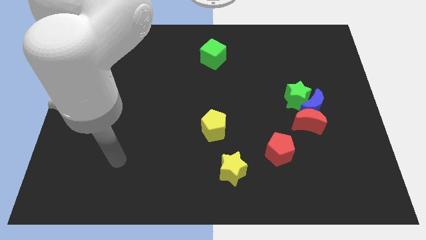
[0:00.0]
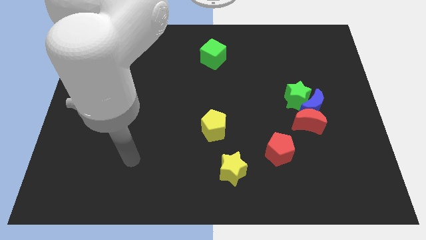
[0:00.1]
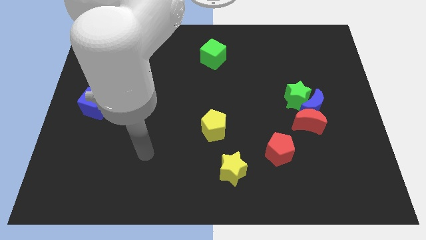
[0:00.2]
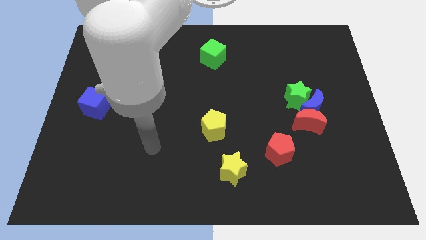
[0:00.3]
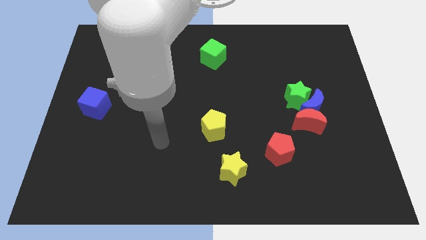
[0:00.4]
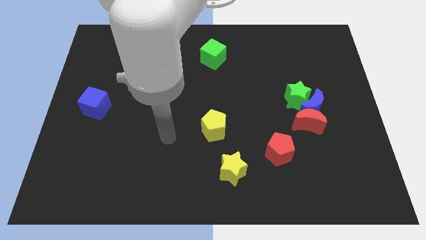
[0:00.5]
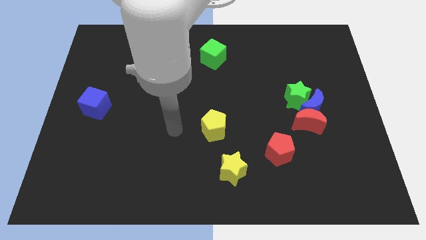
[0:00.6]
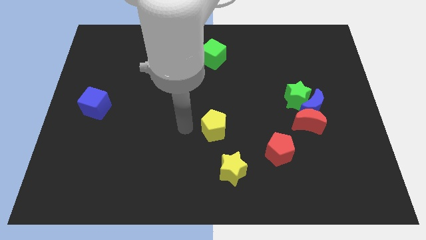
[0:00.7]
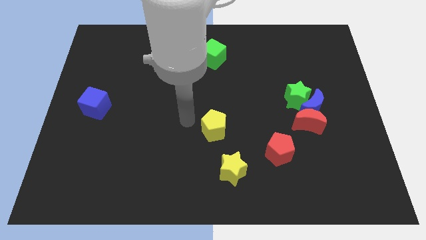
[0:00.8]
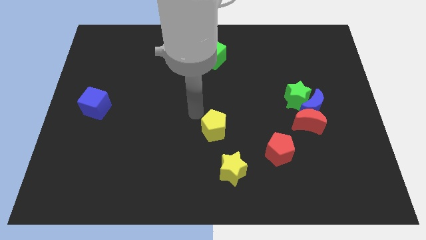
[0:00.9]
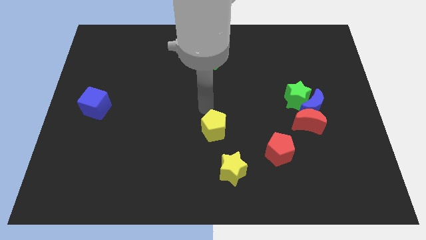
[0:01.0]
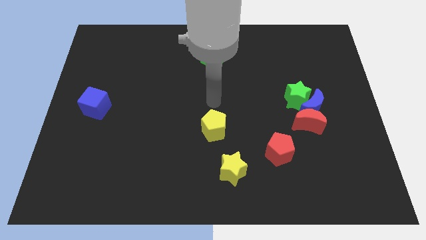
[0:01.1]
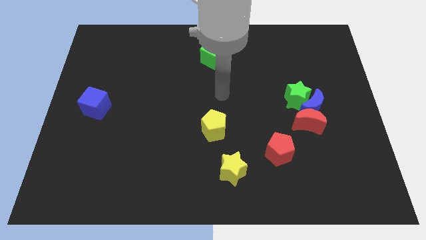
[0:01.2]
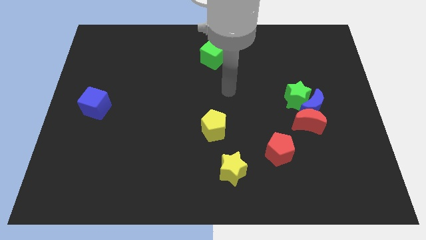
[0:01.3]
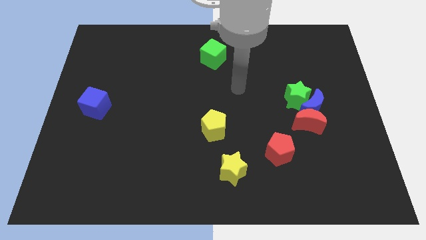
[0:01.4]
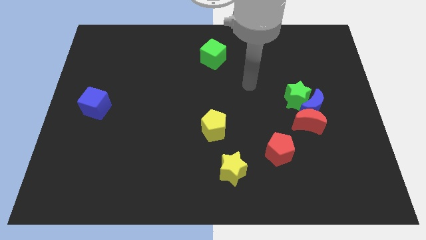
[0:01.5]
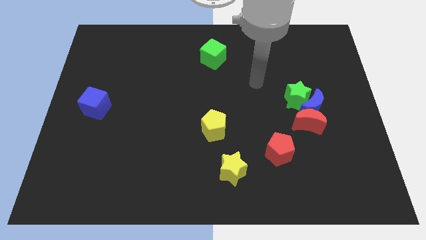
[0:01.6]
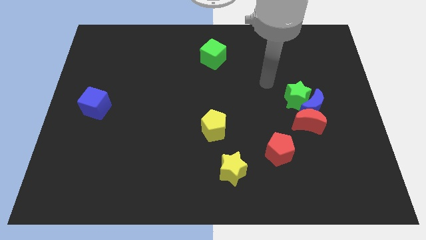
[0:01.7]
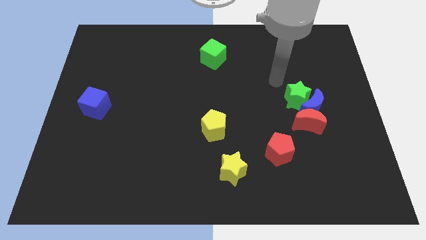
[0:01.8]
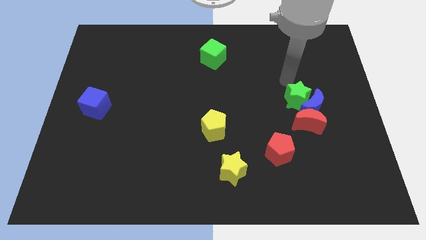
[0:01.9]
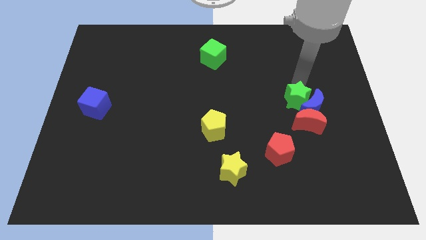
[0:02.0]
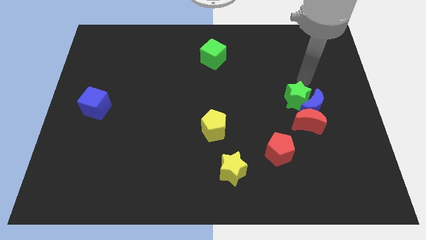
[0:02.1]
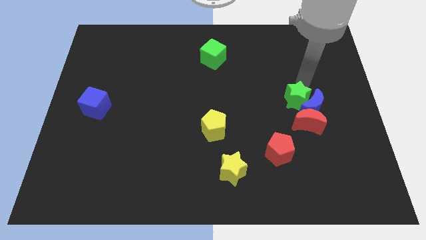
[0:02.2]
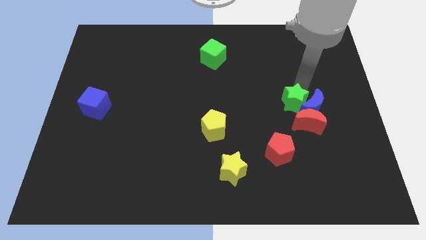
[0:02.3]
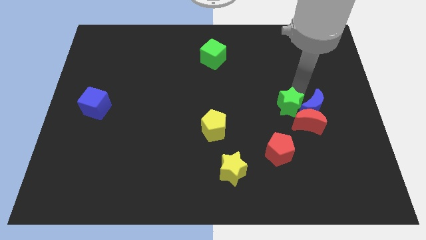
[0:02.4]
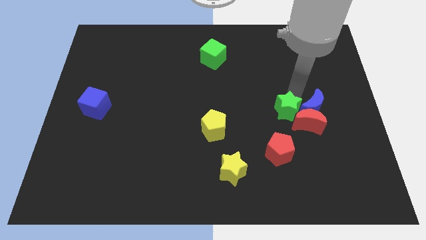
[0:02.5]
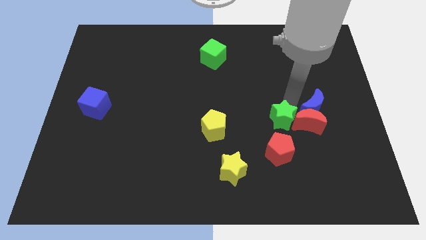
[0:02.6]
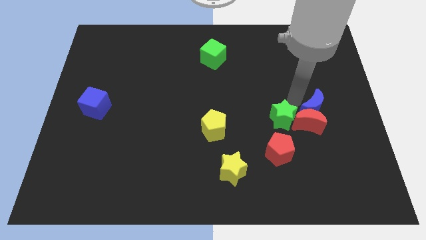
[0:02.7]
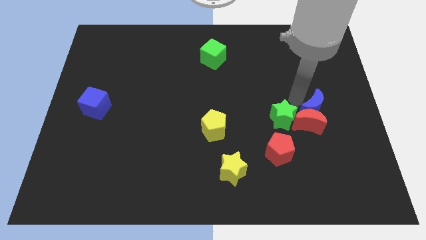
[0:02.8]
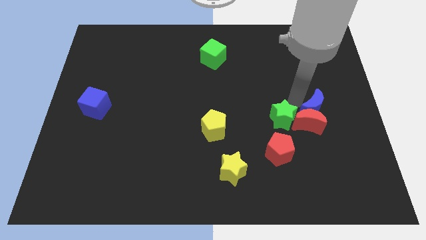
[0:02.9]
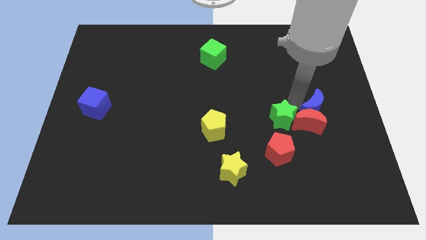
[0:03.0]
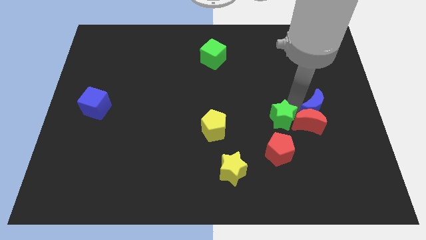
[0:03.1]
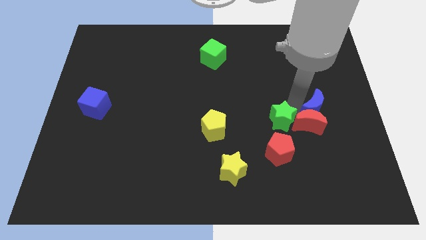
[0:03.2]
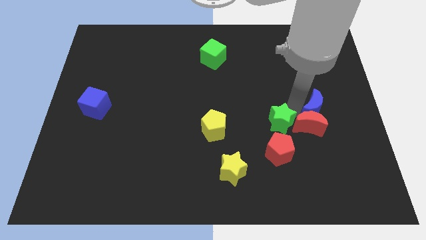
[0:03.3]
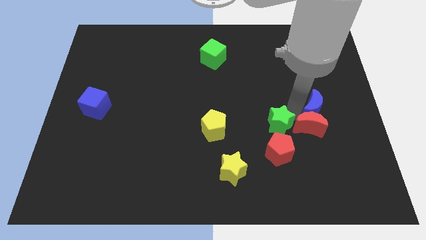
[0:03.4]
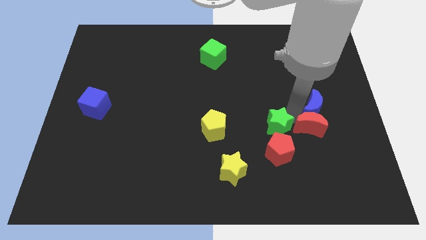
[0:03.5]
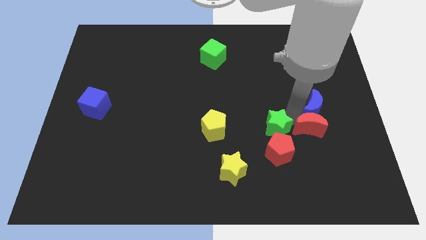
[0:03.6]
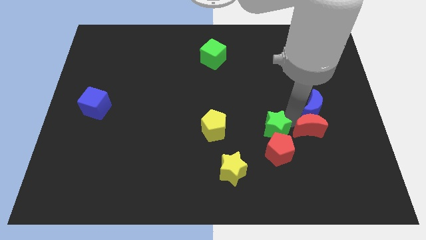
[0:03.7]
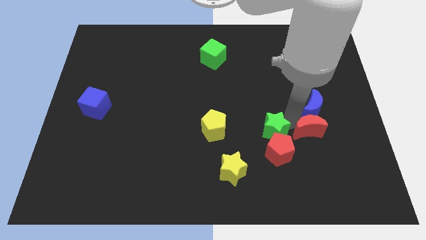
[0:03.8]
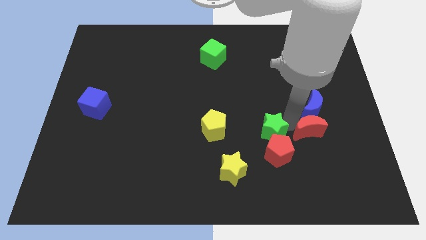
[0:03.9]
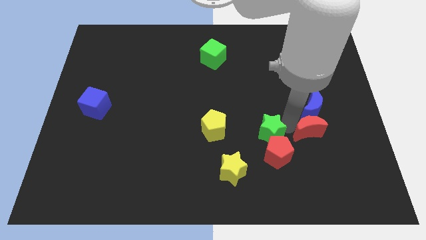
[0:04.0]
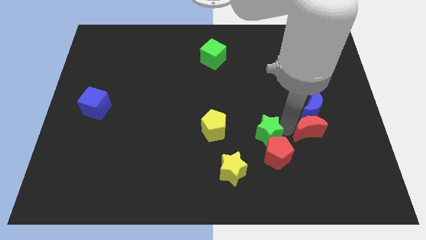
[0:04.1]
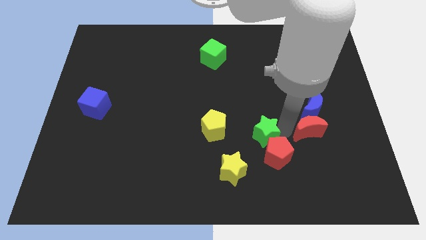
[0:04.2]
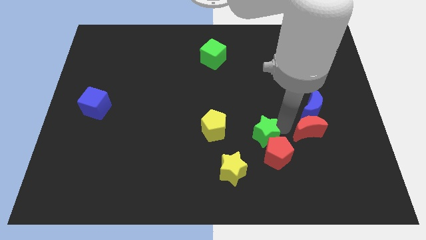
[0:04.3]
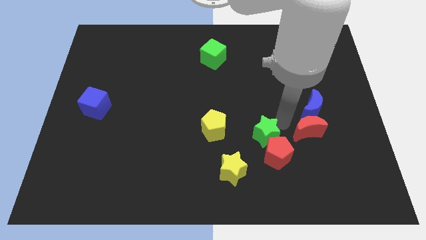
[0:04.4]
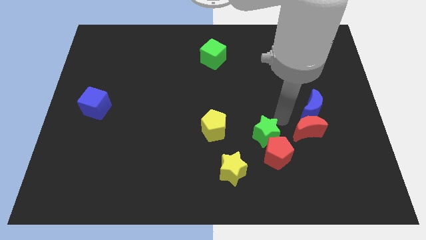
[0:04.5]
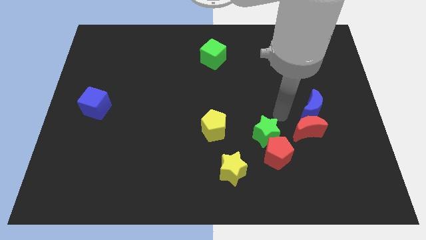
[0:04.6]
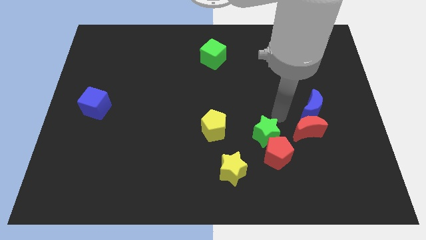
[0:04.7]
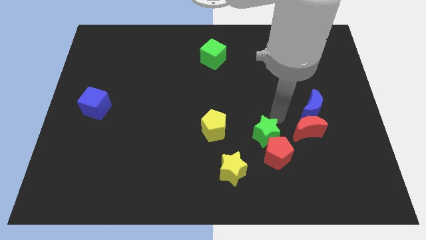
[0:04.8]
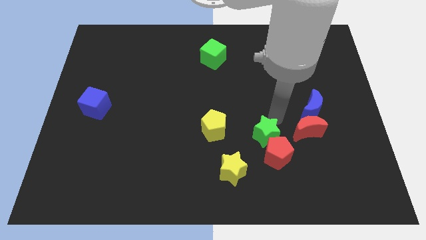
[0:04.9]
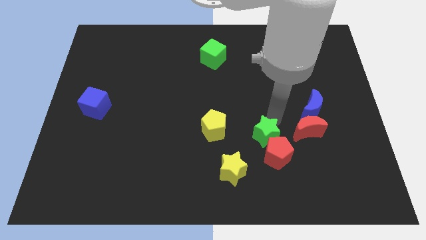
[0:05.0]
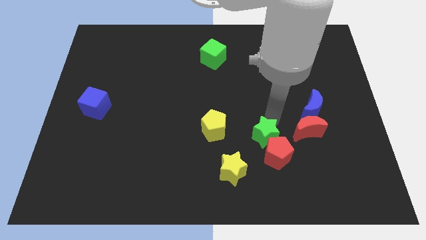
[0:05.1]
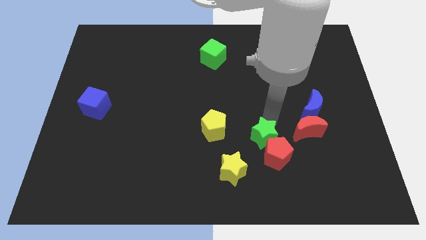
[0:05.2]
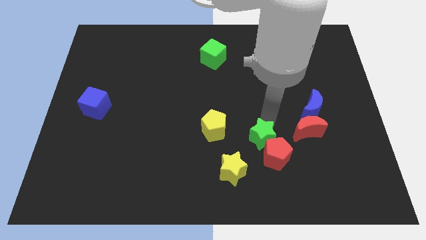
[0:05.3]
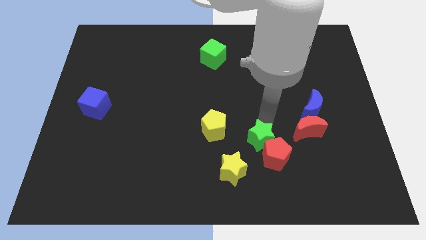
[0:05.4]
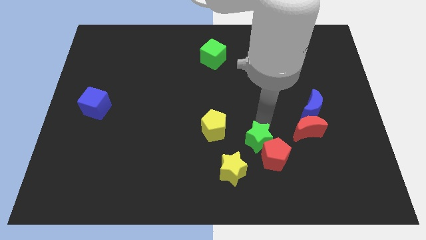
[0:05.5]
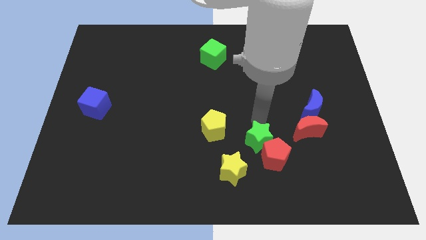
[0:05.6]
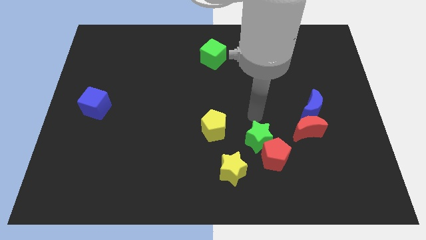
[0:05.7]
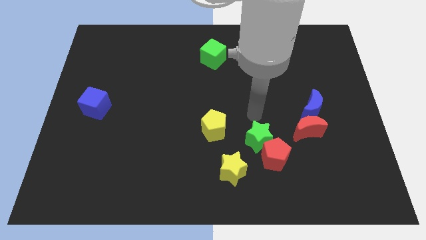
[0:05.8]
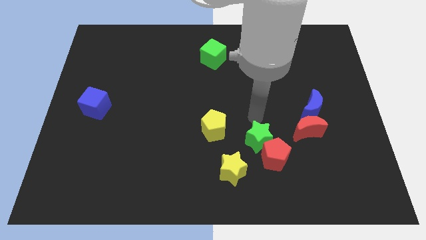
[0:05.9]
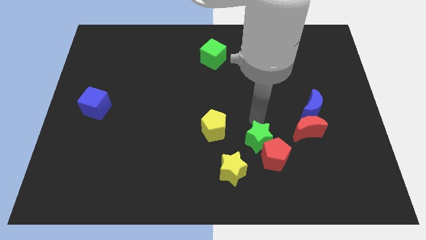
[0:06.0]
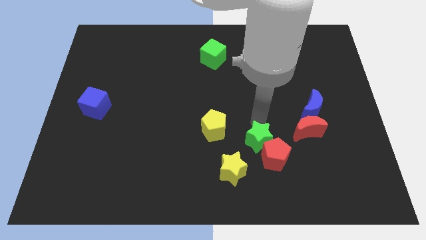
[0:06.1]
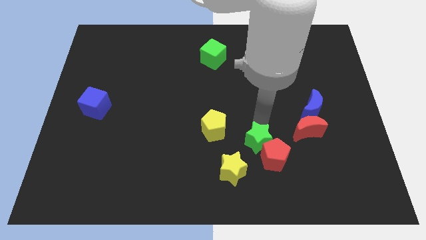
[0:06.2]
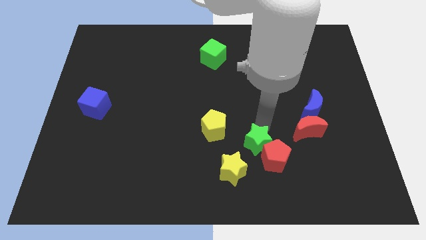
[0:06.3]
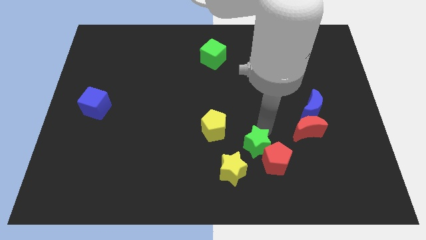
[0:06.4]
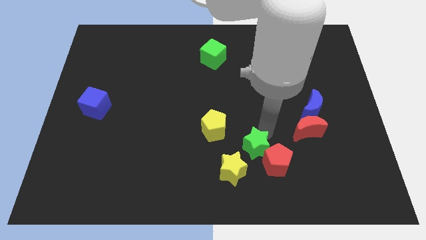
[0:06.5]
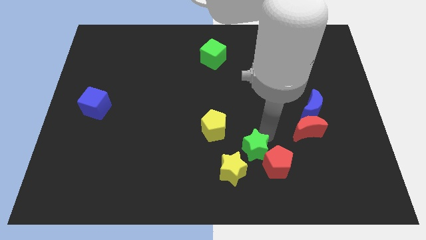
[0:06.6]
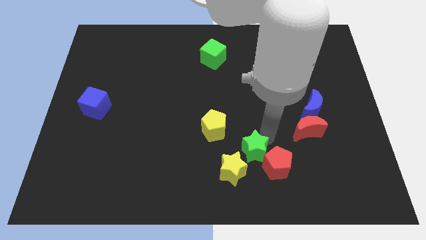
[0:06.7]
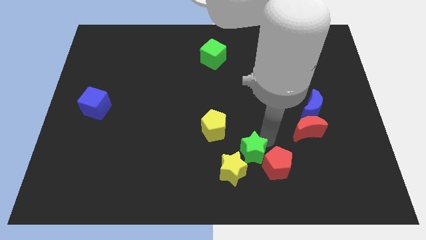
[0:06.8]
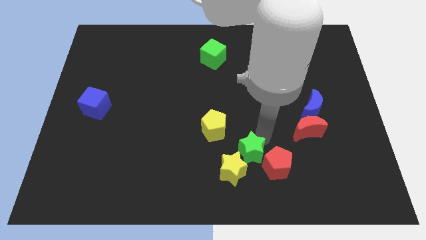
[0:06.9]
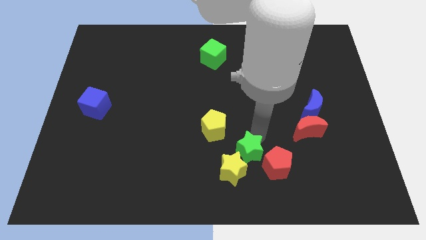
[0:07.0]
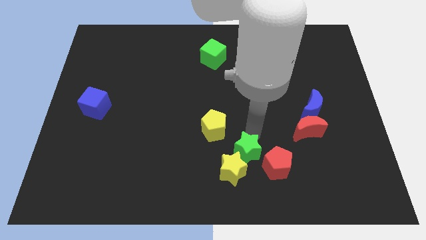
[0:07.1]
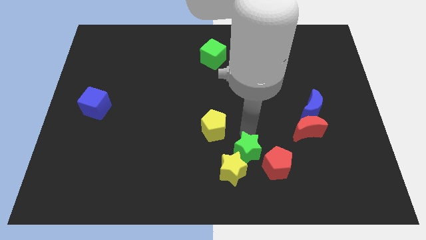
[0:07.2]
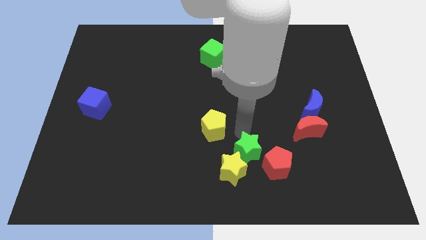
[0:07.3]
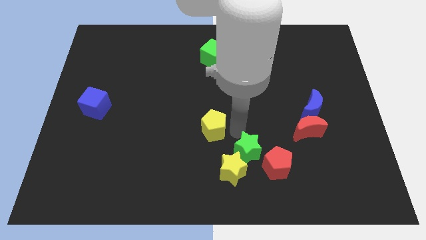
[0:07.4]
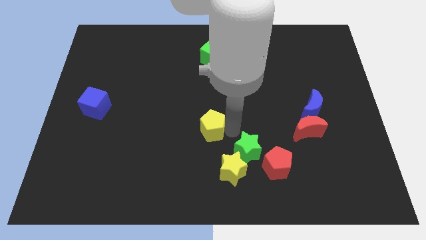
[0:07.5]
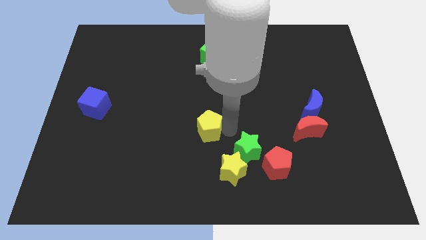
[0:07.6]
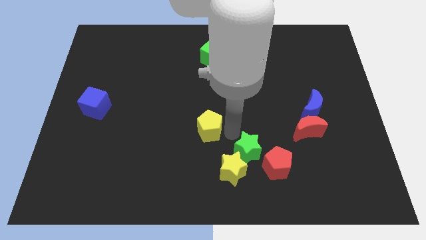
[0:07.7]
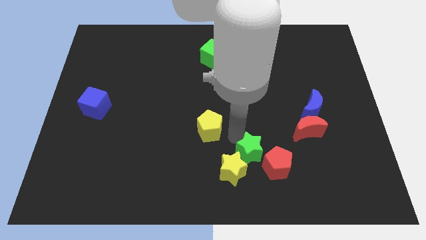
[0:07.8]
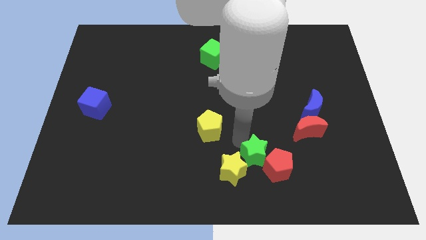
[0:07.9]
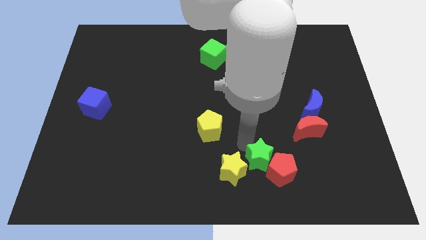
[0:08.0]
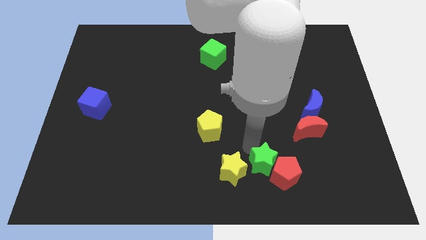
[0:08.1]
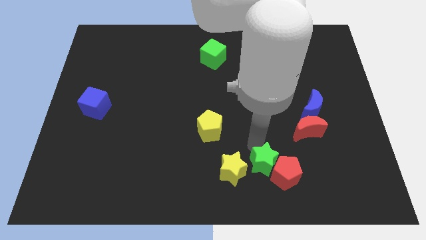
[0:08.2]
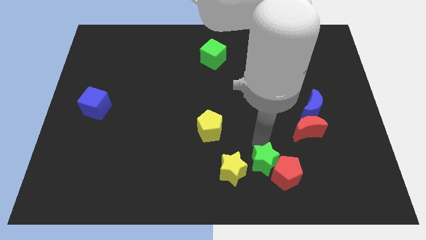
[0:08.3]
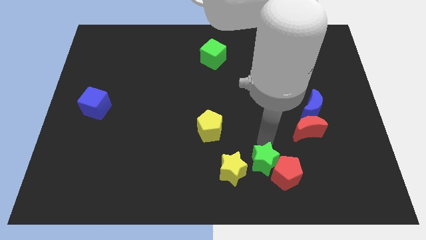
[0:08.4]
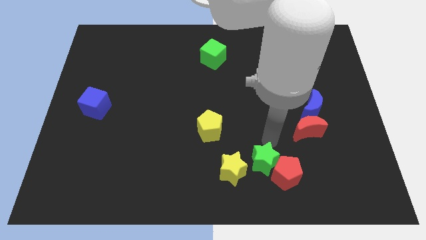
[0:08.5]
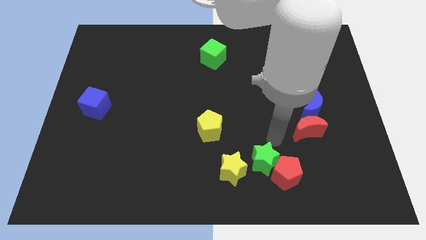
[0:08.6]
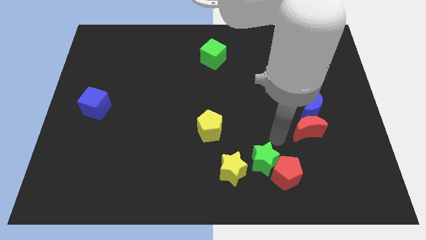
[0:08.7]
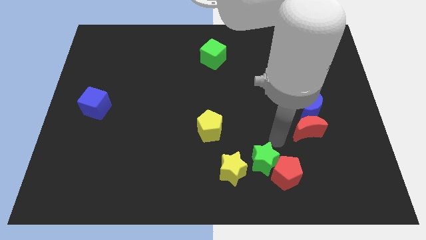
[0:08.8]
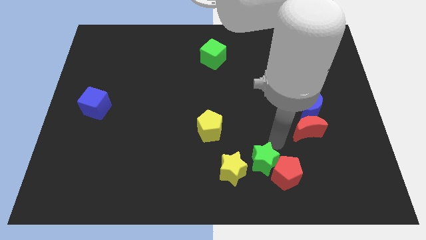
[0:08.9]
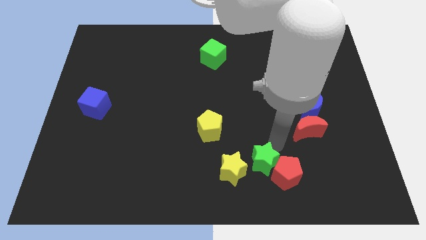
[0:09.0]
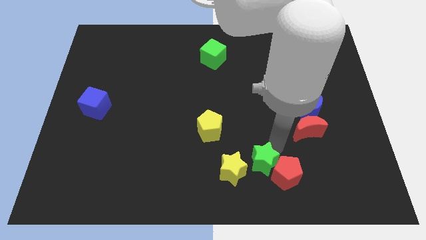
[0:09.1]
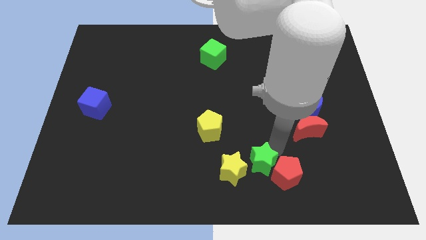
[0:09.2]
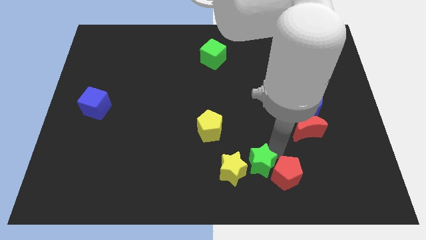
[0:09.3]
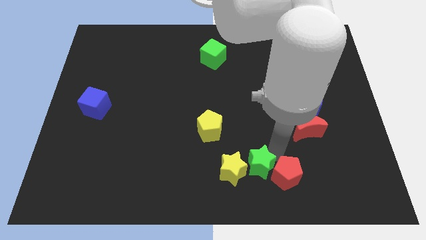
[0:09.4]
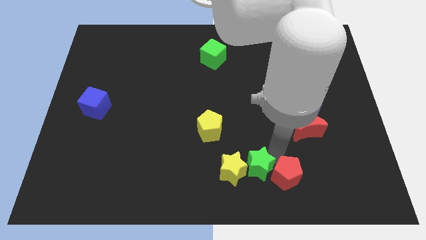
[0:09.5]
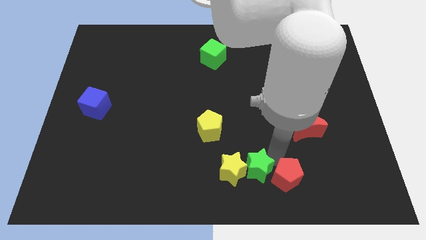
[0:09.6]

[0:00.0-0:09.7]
move the green star to the bottom
